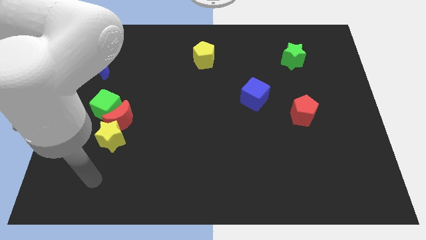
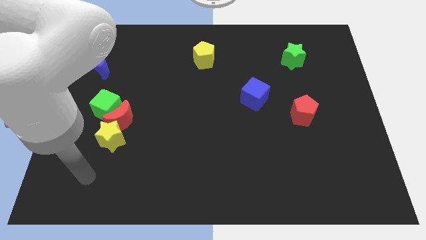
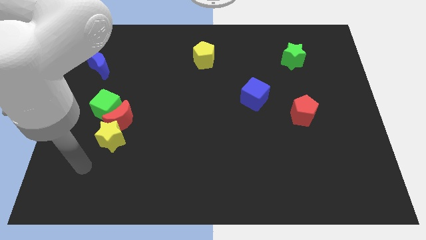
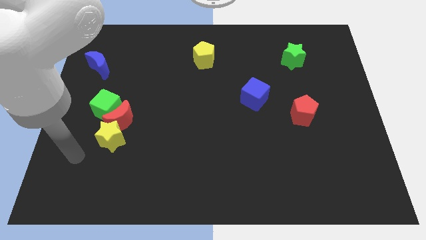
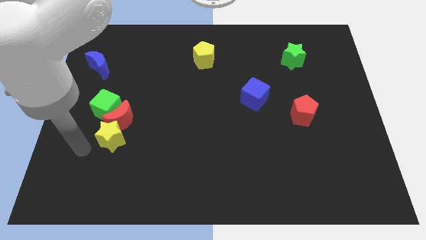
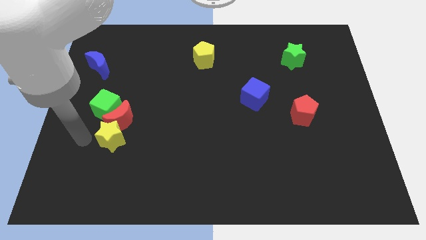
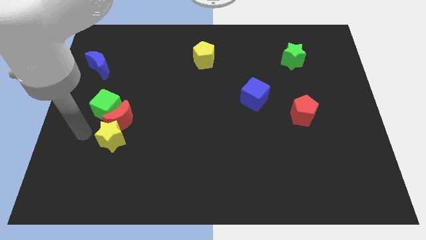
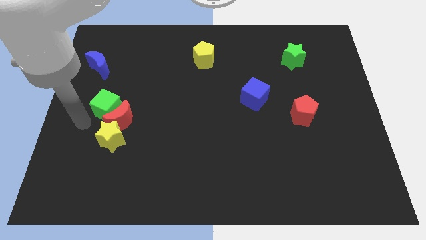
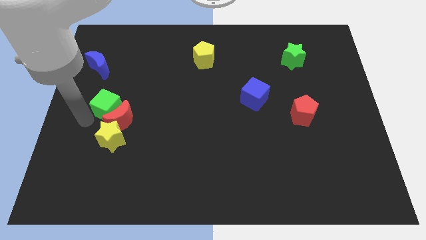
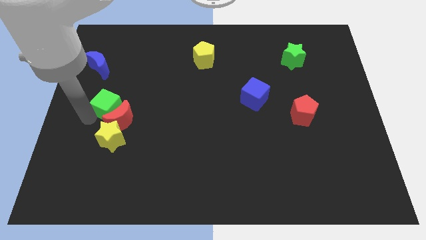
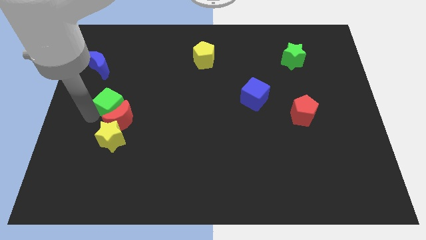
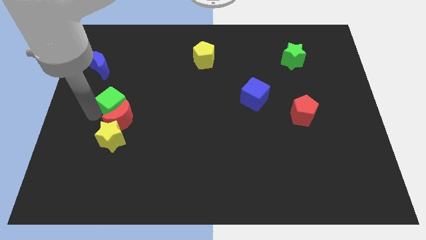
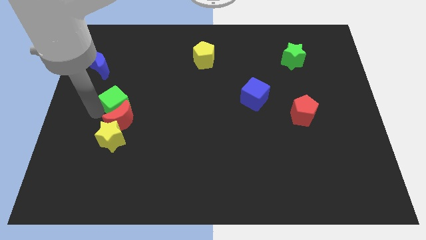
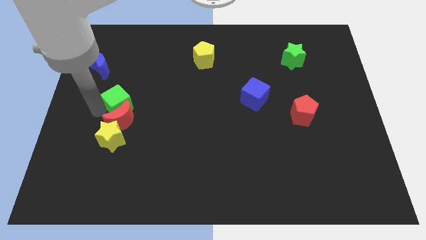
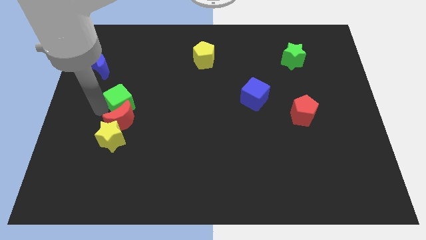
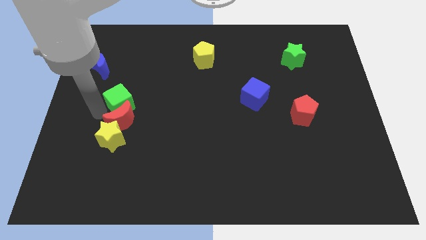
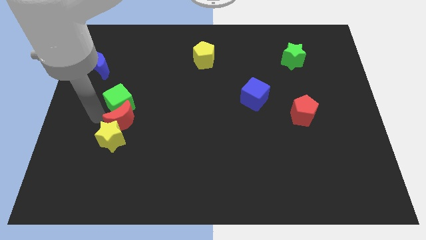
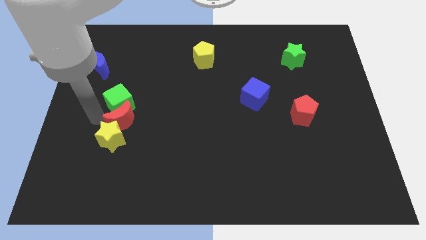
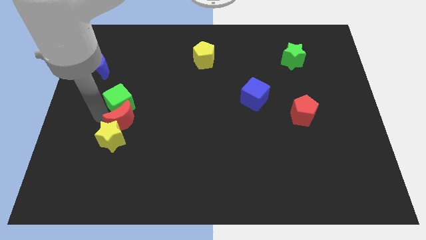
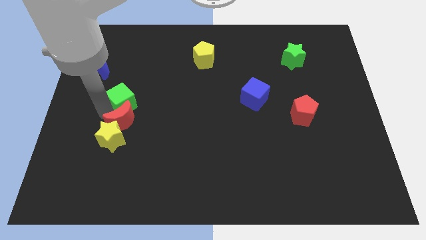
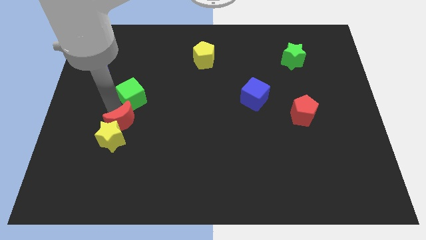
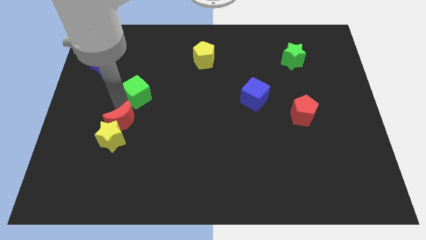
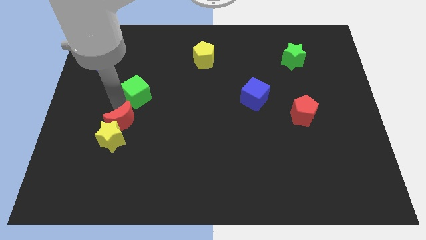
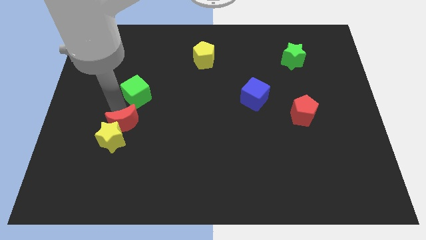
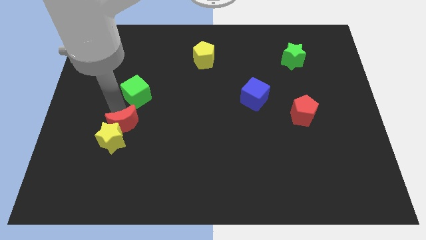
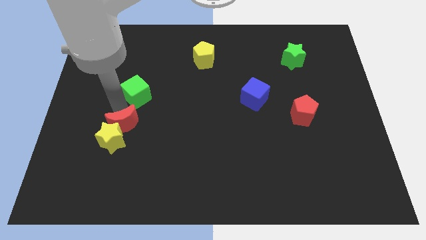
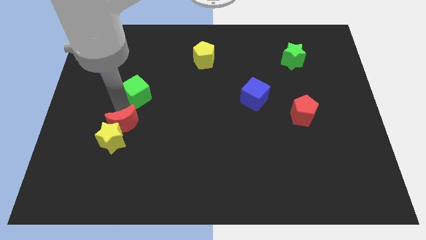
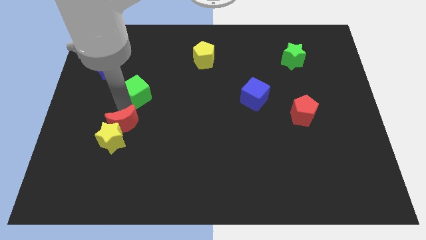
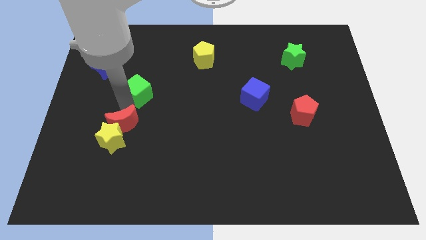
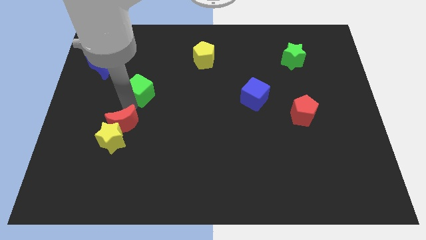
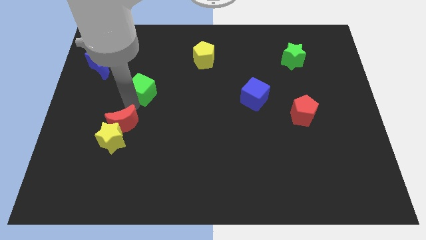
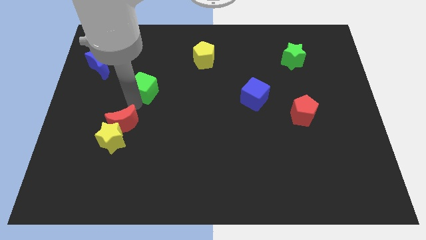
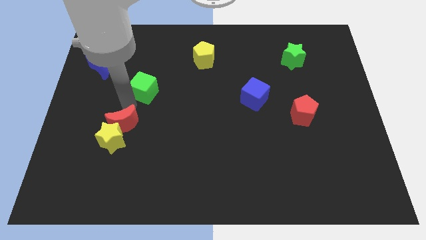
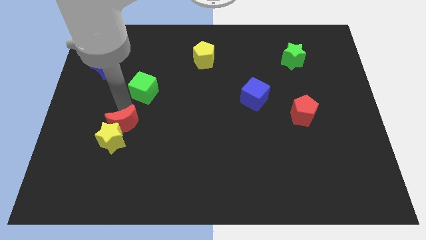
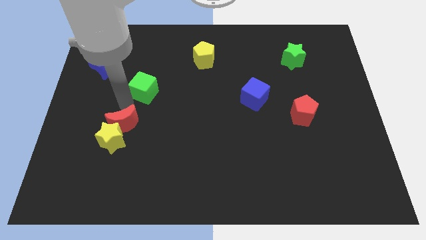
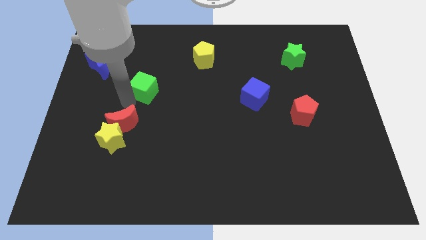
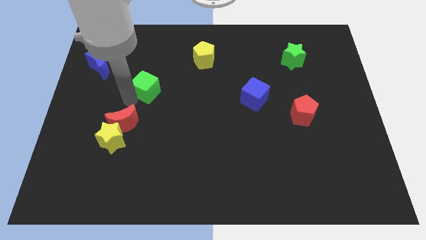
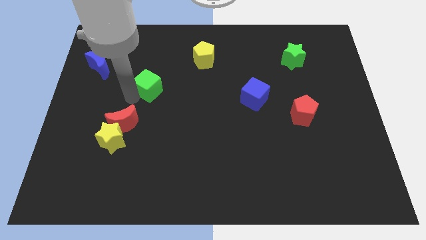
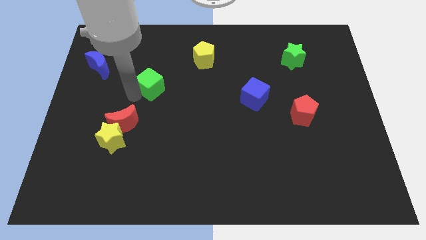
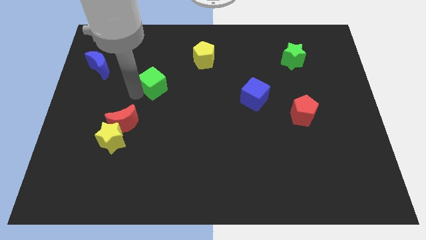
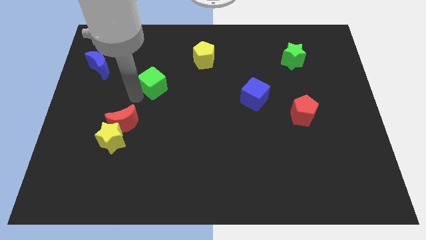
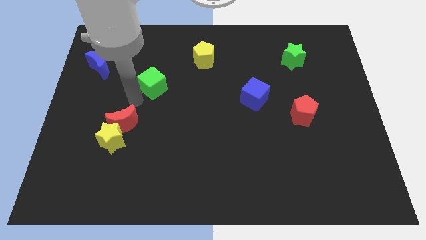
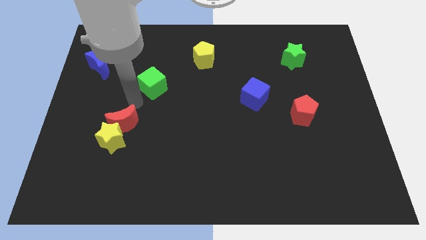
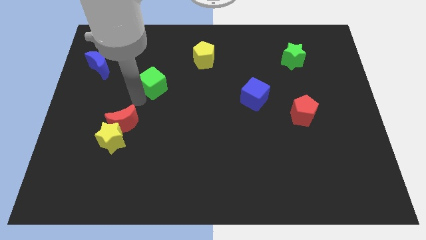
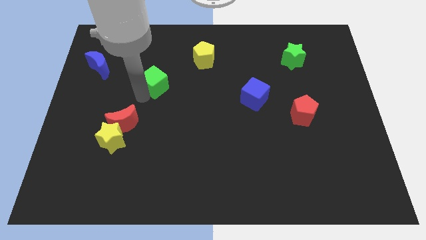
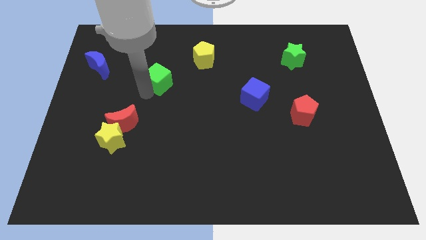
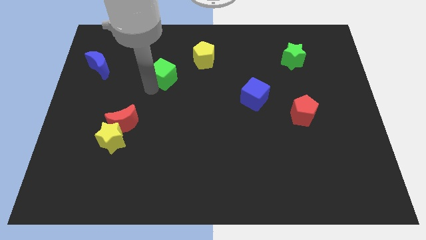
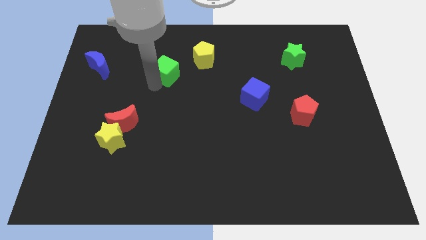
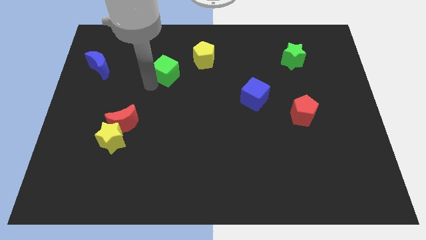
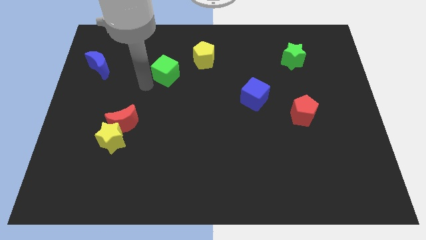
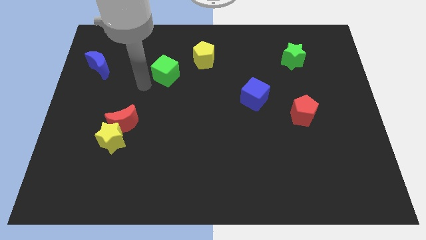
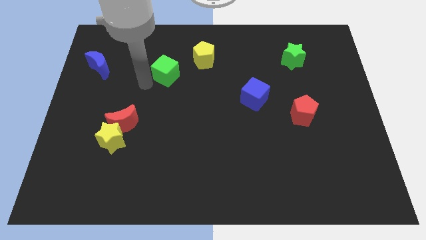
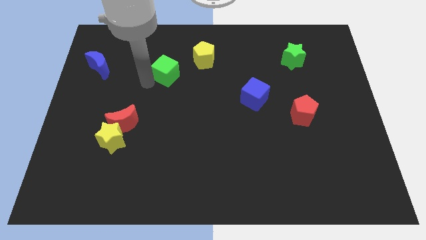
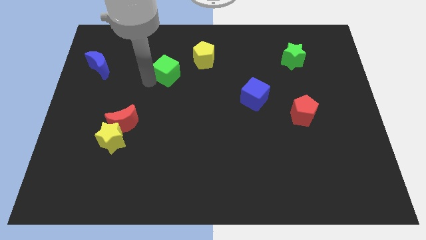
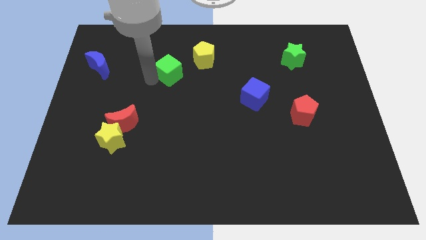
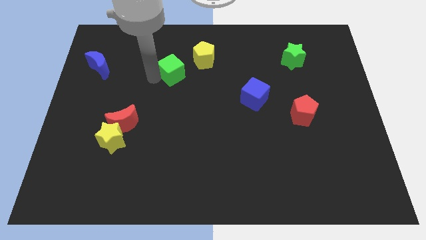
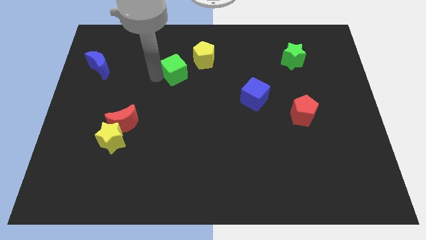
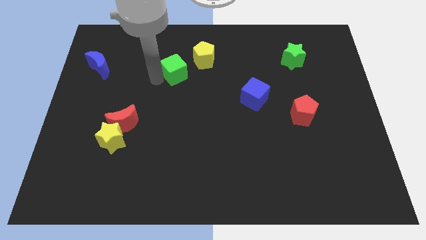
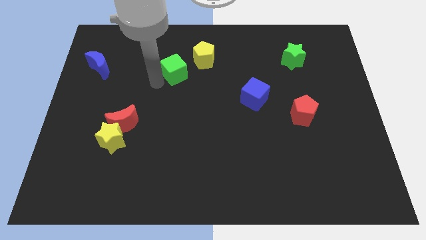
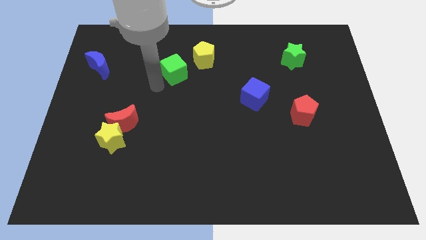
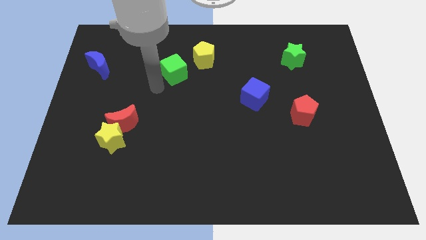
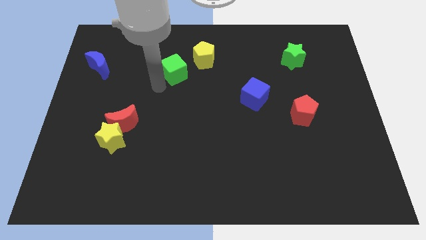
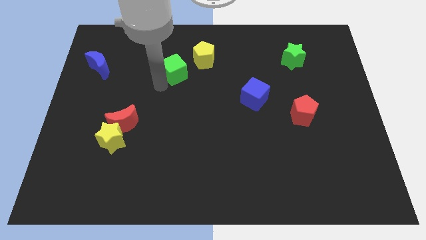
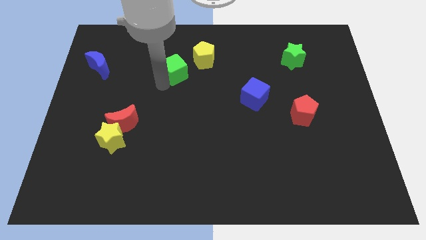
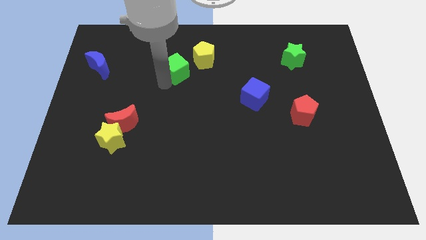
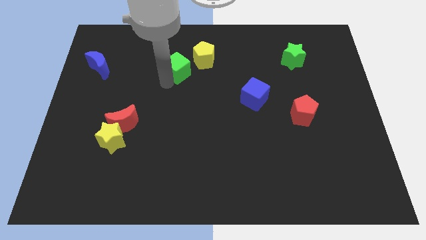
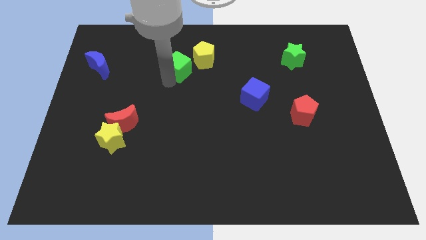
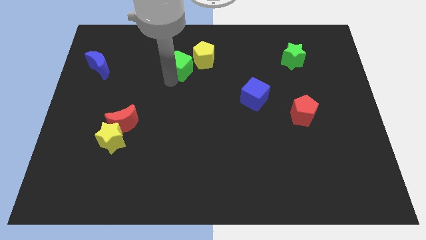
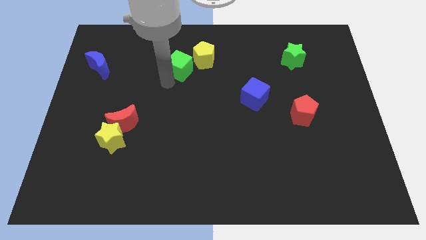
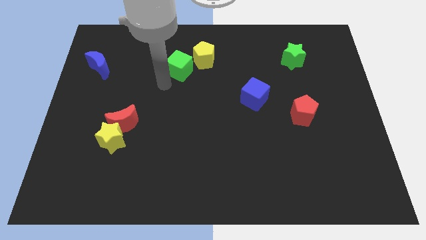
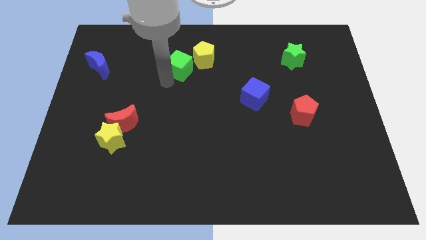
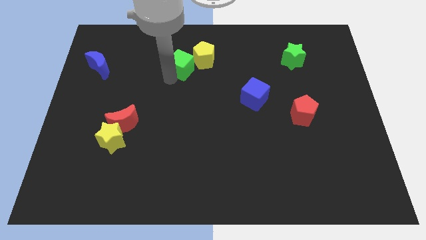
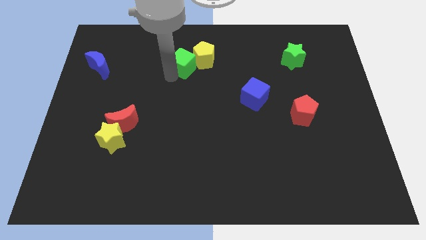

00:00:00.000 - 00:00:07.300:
put the green cube towards the yellow pentagon
